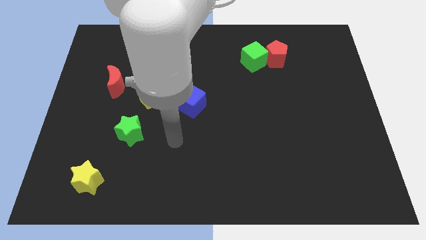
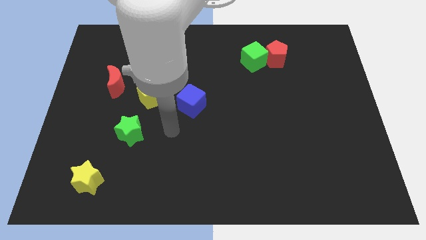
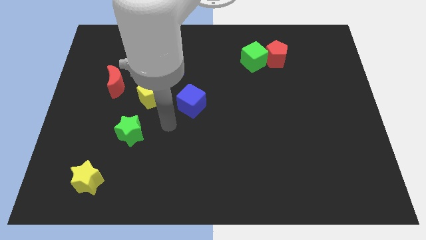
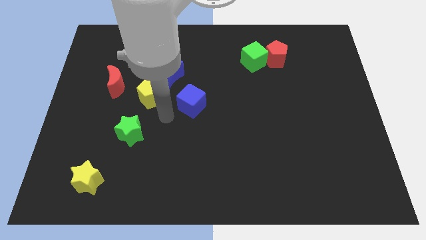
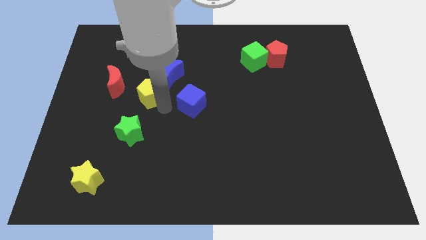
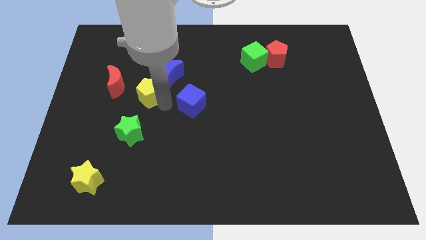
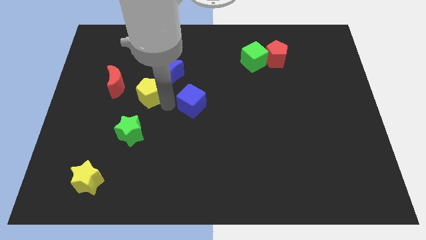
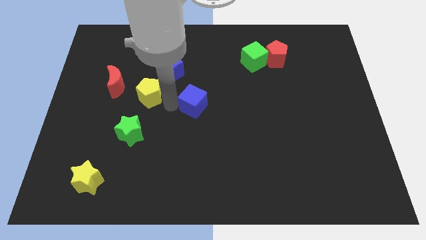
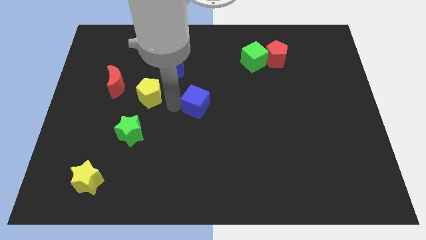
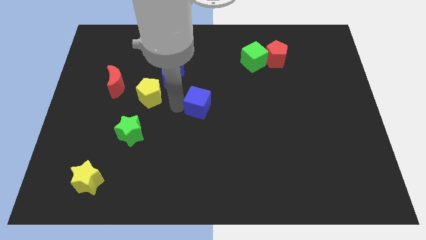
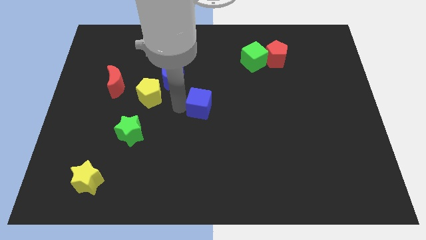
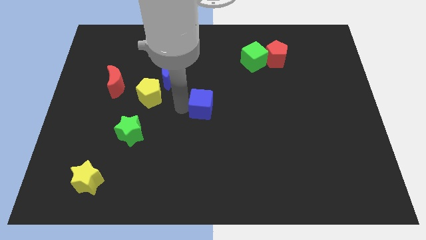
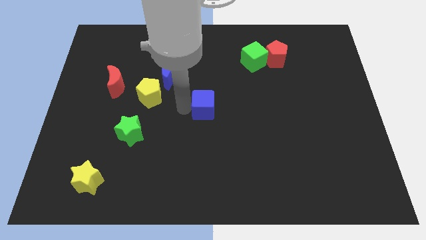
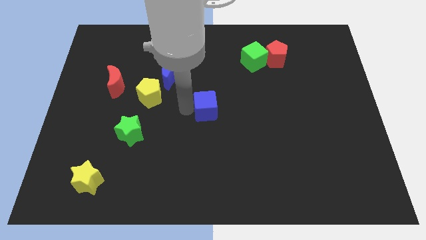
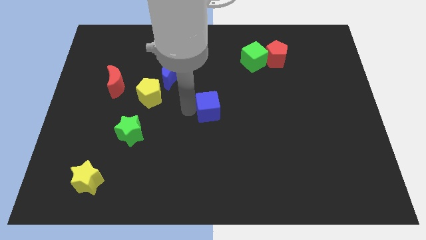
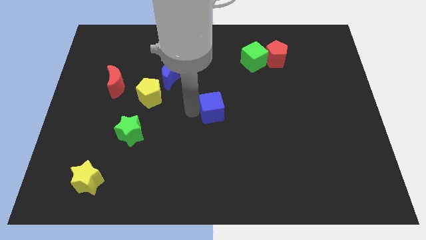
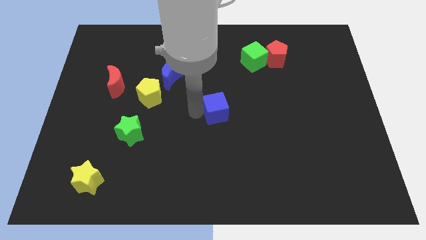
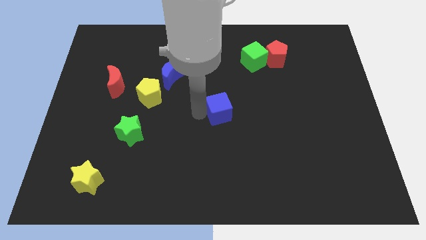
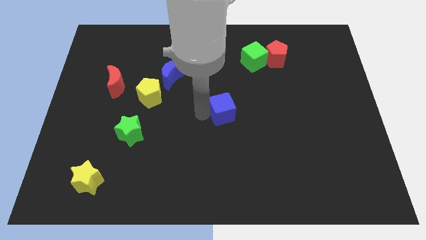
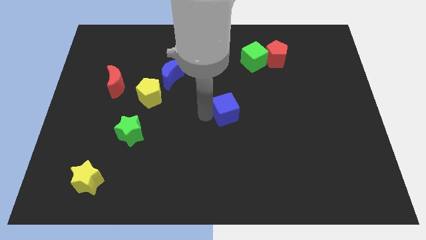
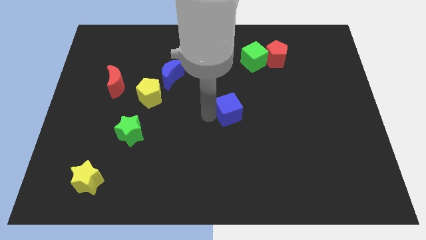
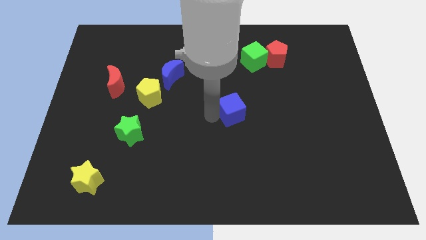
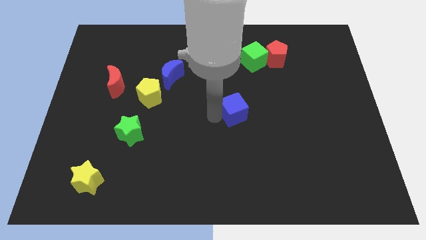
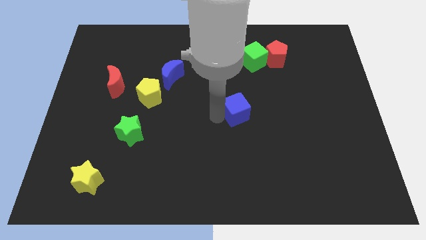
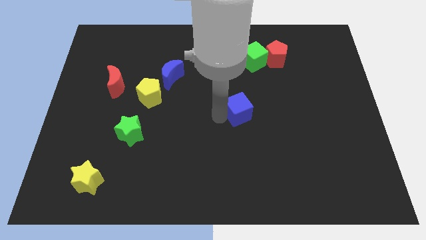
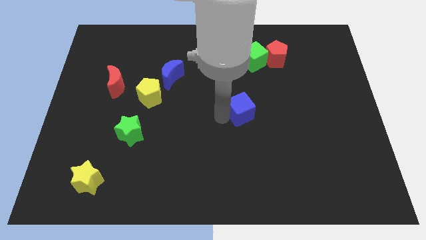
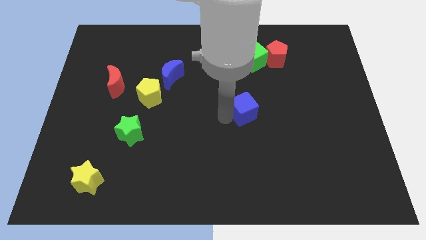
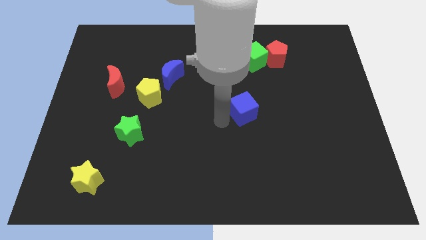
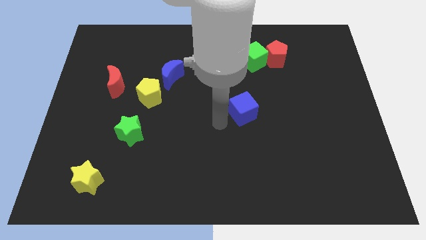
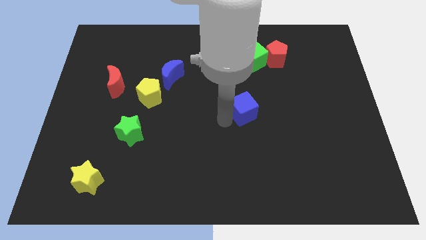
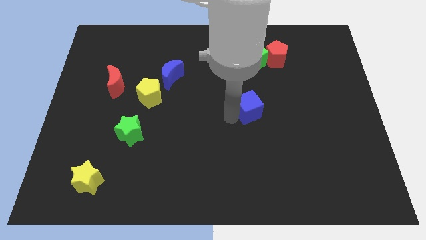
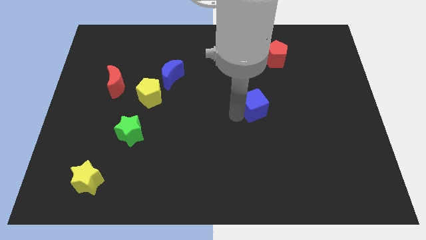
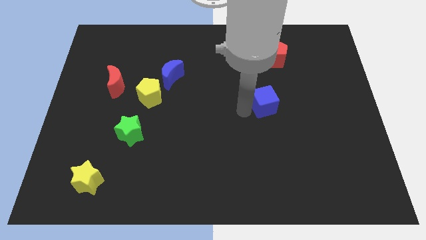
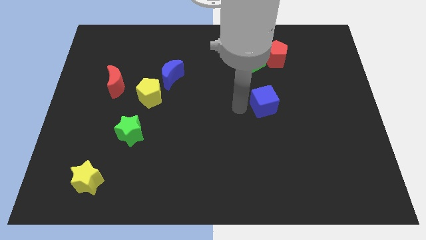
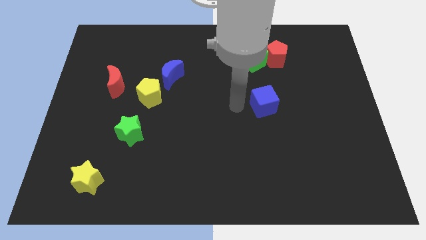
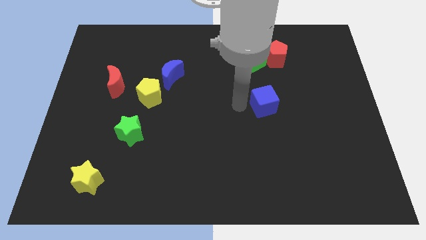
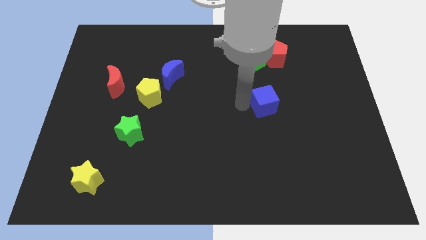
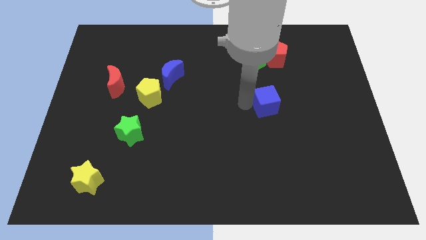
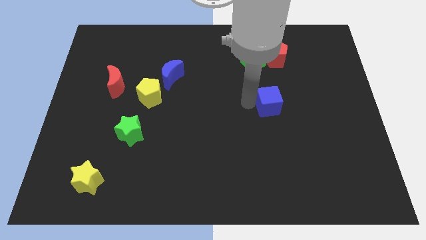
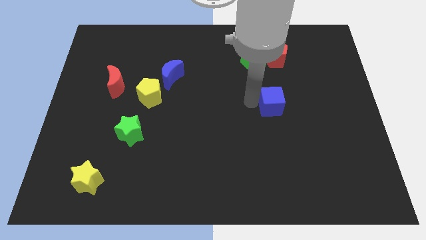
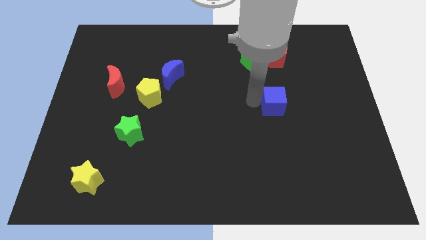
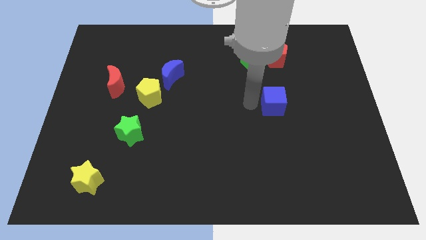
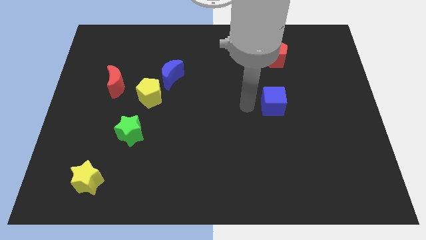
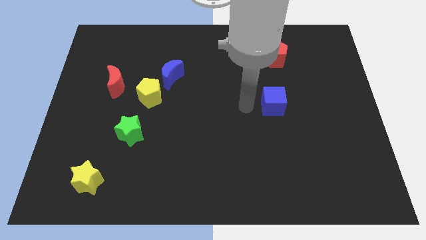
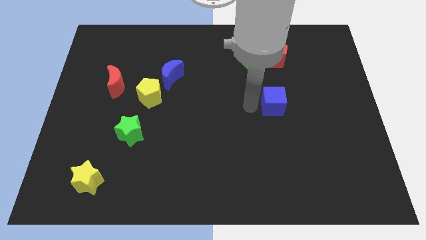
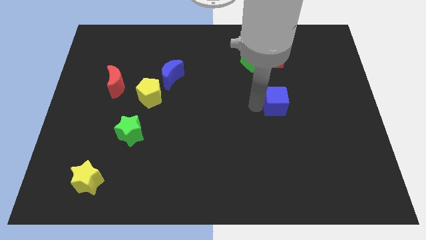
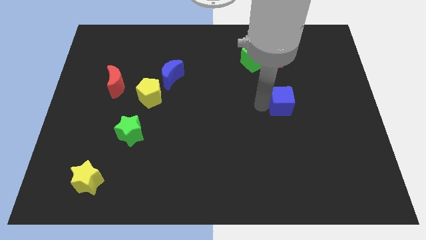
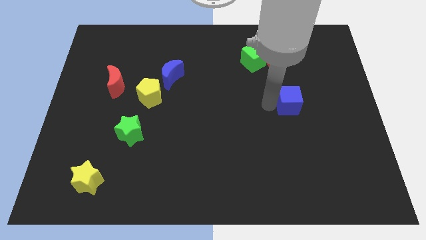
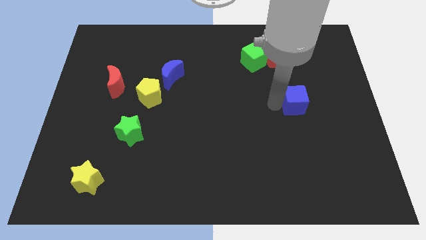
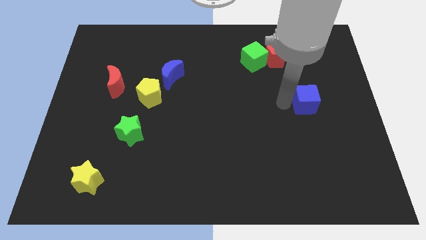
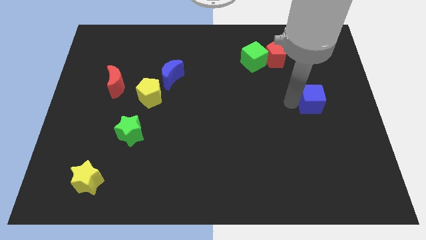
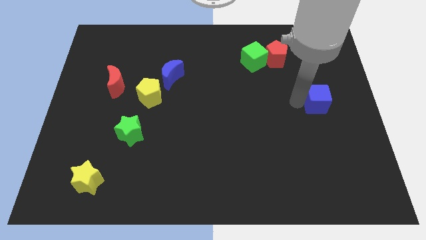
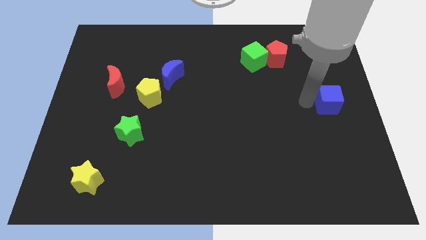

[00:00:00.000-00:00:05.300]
move the blue cube to the center right
